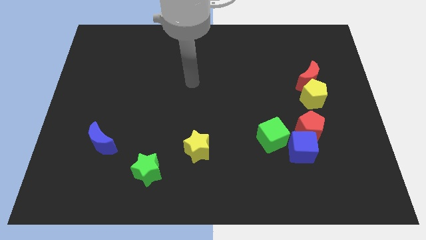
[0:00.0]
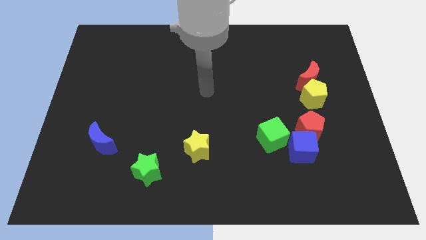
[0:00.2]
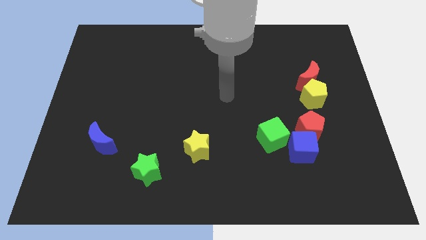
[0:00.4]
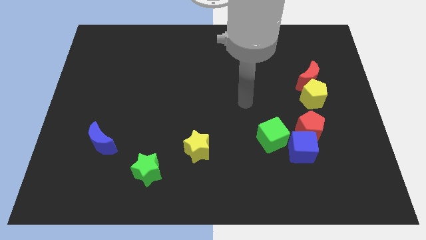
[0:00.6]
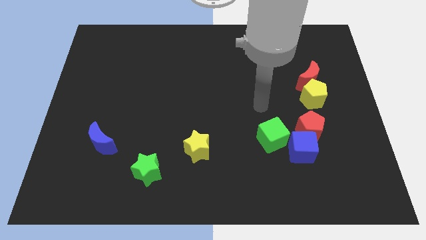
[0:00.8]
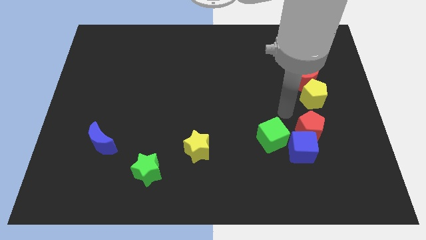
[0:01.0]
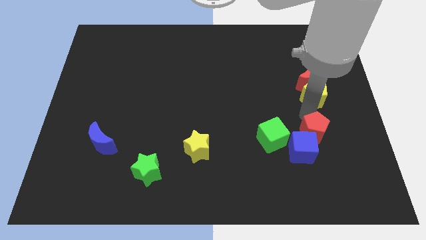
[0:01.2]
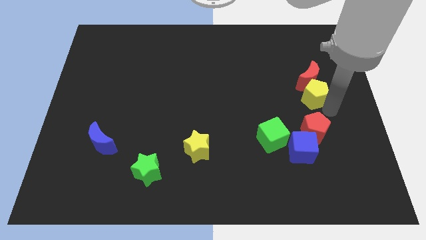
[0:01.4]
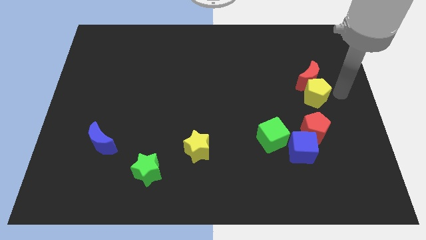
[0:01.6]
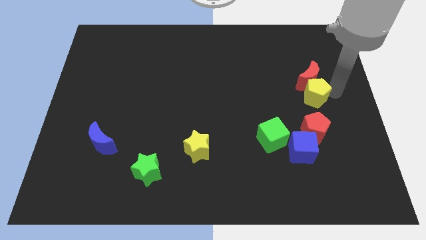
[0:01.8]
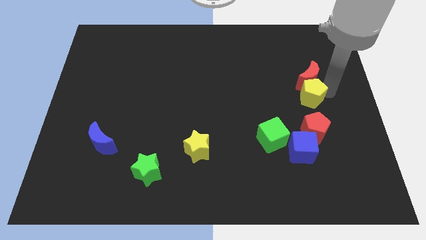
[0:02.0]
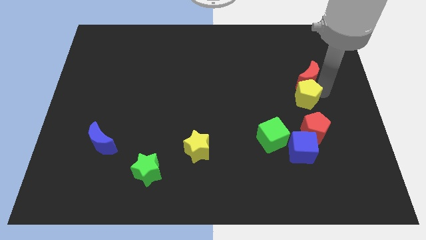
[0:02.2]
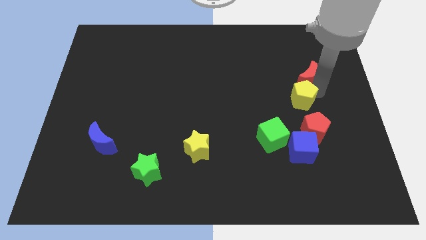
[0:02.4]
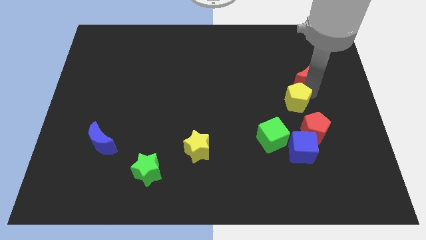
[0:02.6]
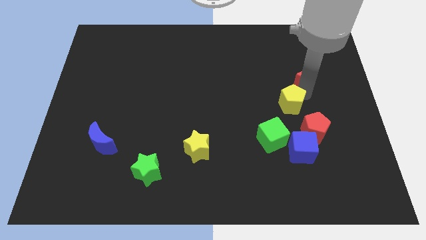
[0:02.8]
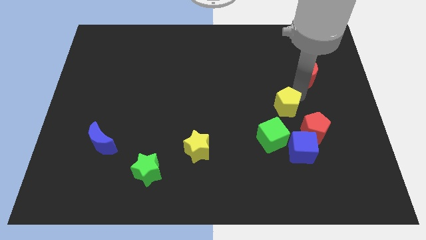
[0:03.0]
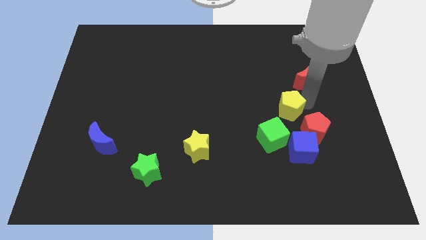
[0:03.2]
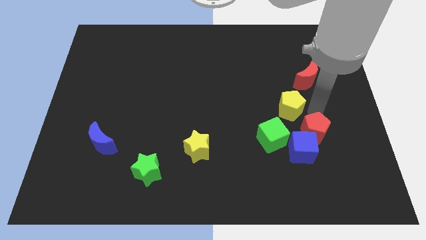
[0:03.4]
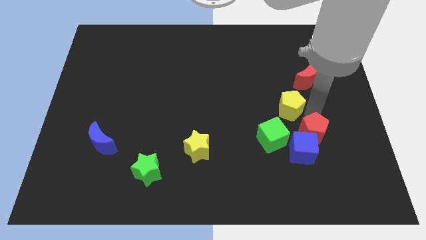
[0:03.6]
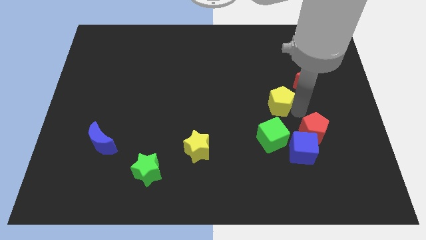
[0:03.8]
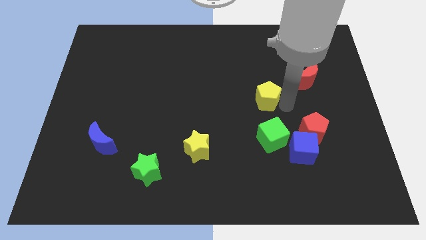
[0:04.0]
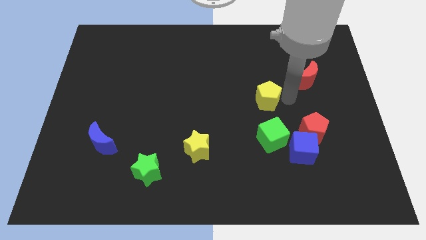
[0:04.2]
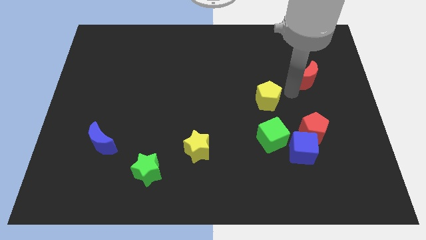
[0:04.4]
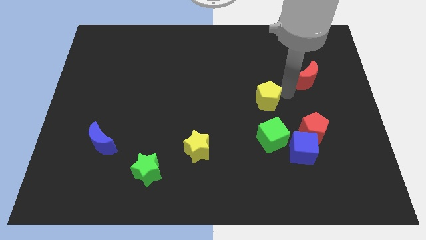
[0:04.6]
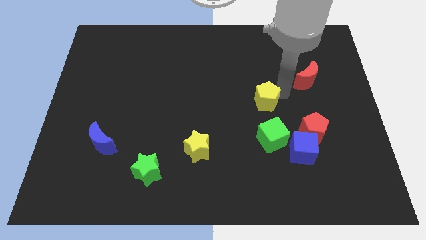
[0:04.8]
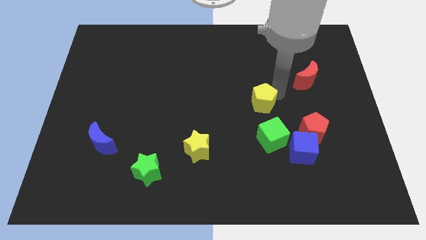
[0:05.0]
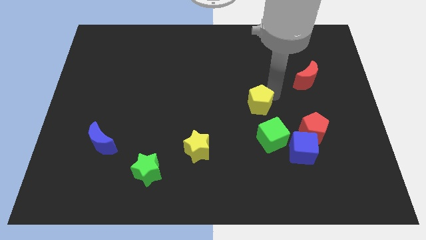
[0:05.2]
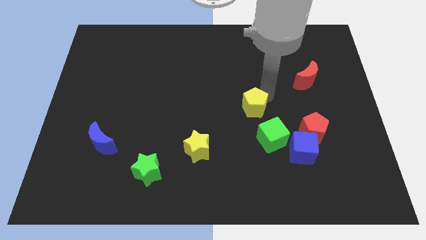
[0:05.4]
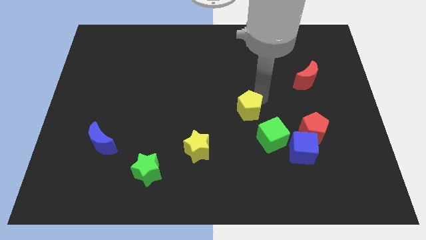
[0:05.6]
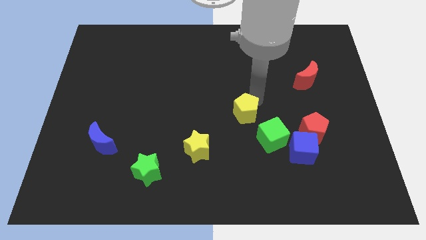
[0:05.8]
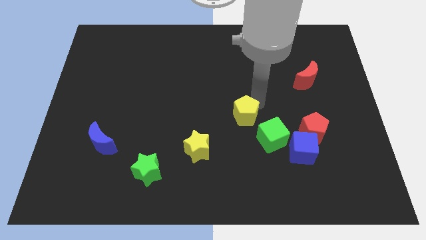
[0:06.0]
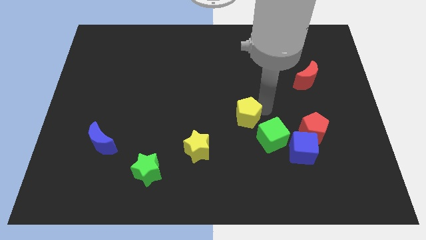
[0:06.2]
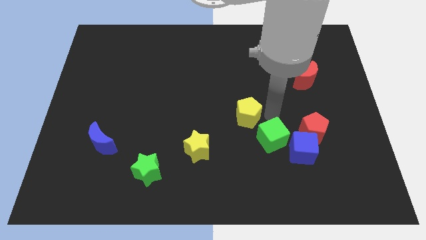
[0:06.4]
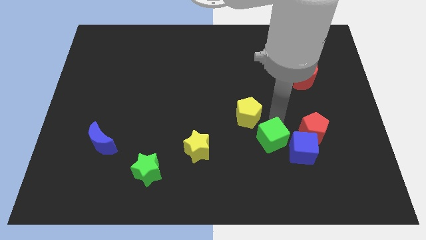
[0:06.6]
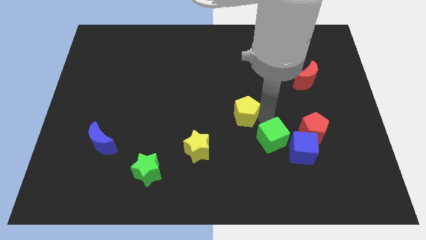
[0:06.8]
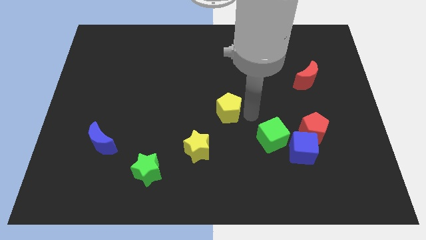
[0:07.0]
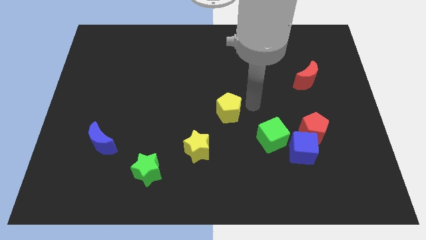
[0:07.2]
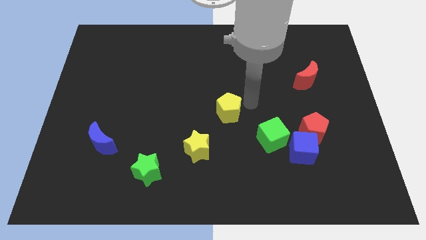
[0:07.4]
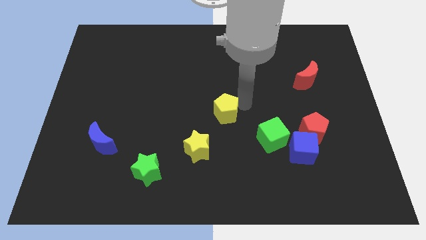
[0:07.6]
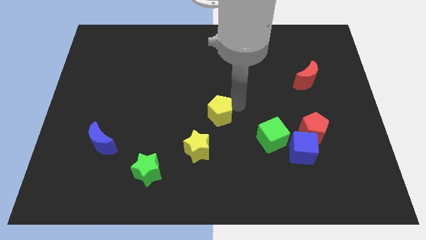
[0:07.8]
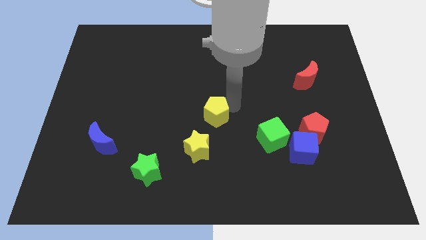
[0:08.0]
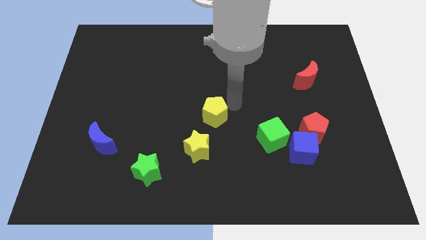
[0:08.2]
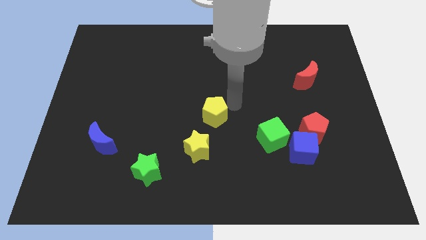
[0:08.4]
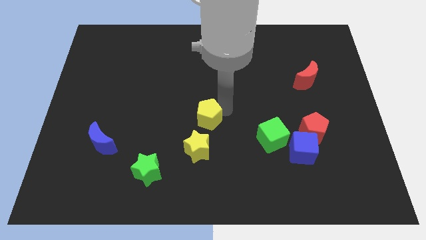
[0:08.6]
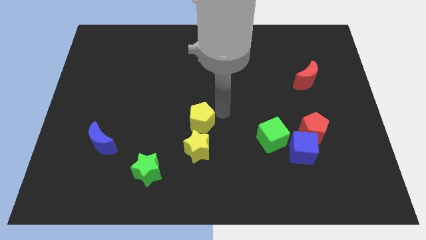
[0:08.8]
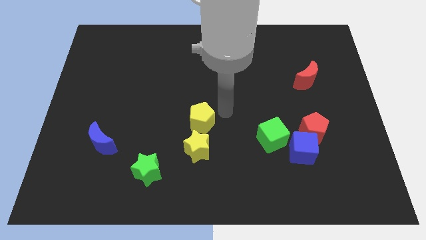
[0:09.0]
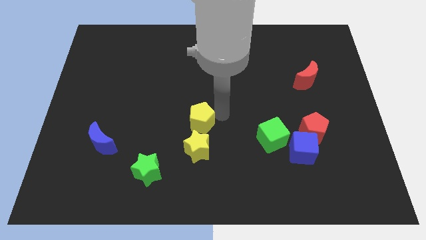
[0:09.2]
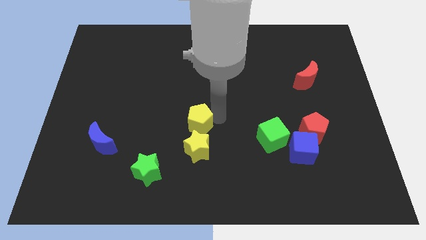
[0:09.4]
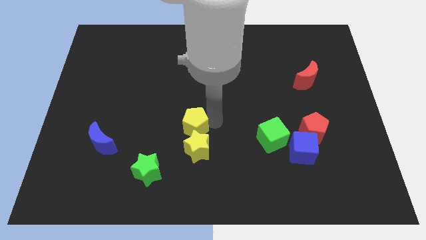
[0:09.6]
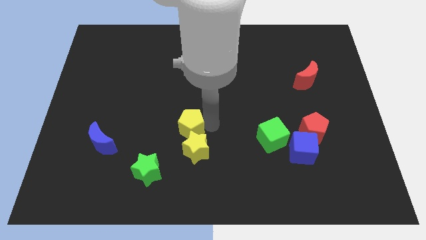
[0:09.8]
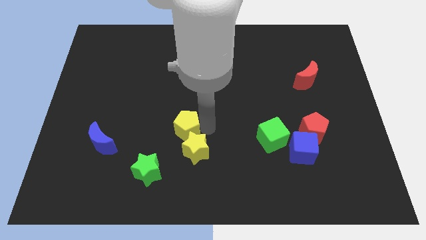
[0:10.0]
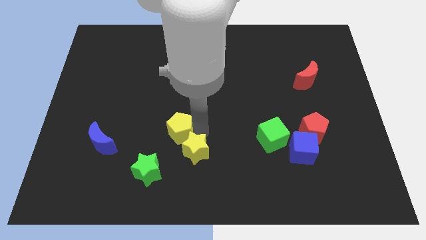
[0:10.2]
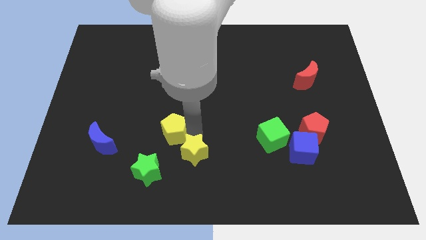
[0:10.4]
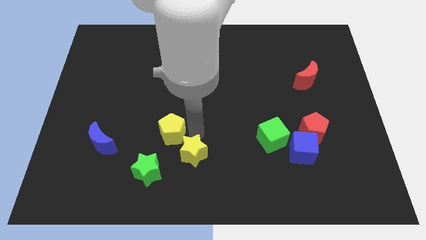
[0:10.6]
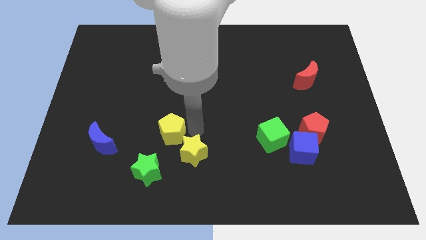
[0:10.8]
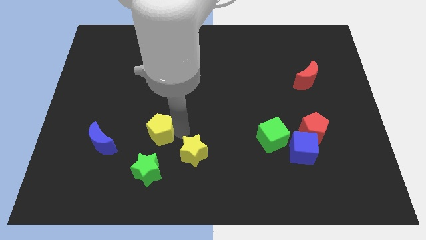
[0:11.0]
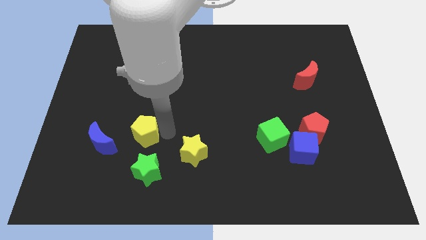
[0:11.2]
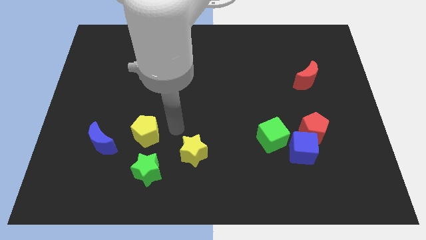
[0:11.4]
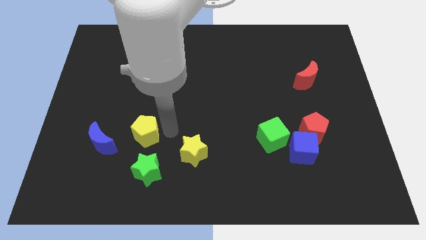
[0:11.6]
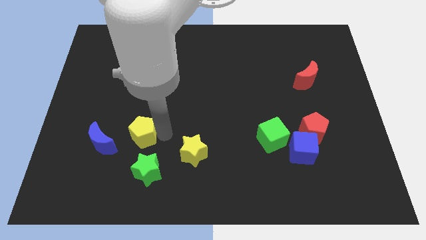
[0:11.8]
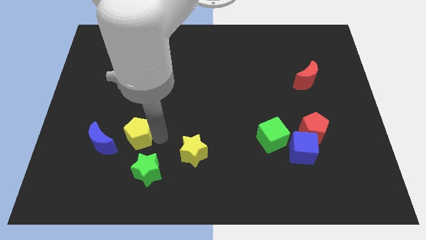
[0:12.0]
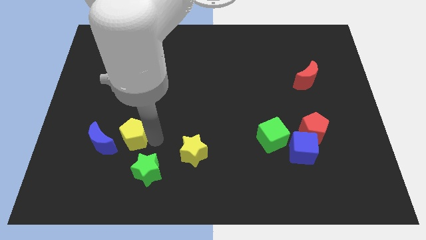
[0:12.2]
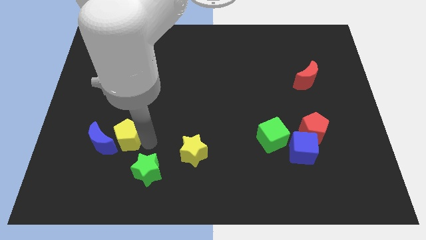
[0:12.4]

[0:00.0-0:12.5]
move the yellow pentagon close to the blue moon

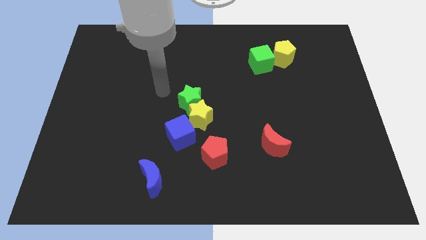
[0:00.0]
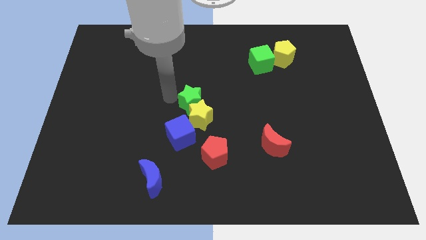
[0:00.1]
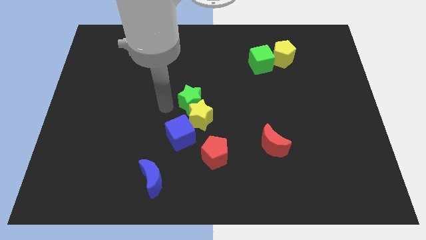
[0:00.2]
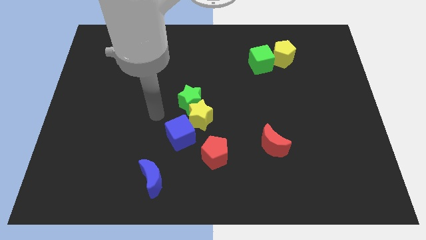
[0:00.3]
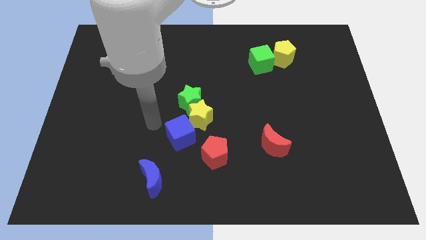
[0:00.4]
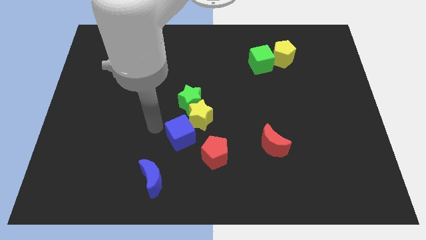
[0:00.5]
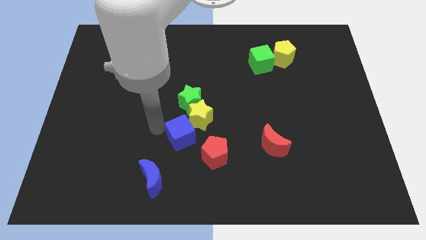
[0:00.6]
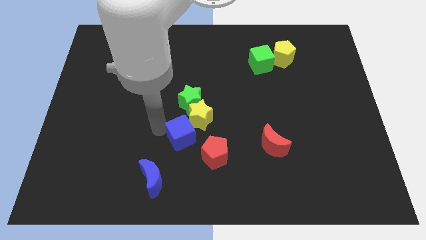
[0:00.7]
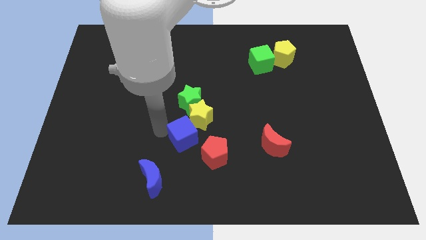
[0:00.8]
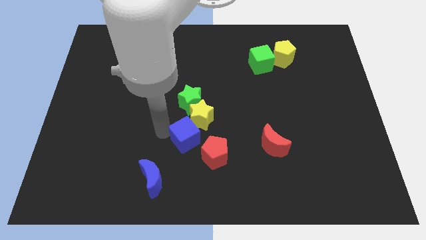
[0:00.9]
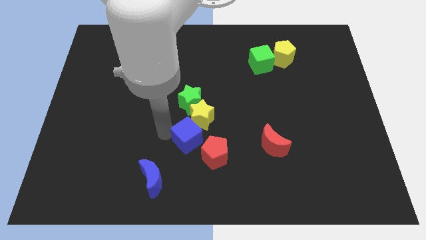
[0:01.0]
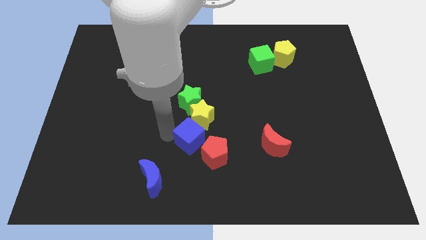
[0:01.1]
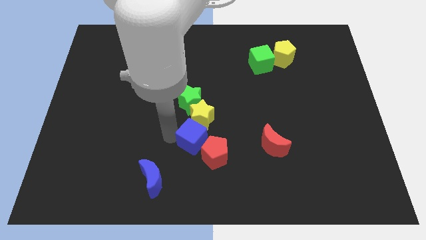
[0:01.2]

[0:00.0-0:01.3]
push the blue cube close to the red pentagon
